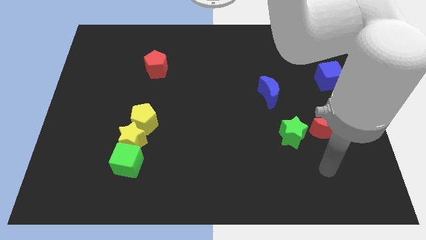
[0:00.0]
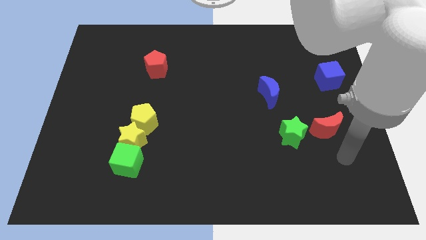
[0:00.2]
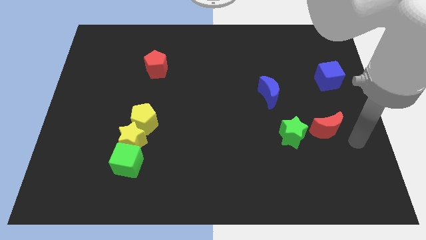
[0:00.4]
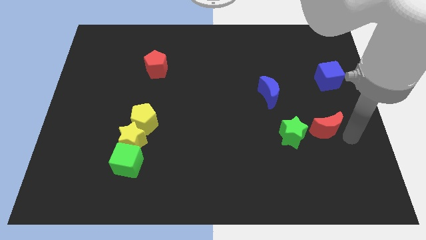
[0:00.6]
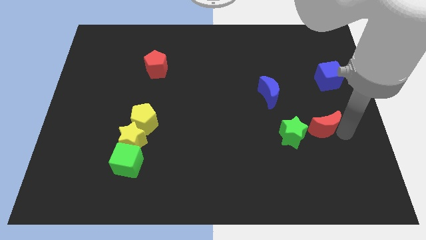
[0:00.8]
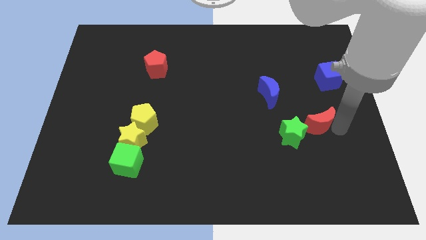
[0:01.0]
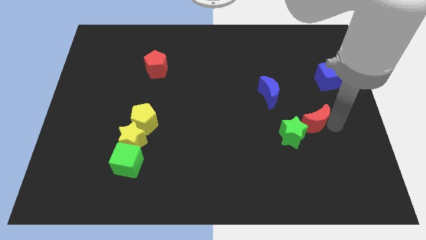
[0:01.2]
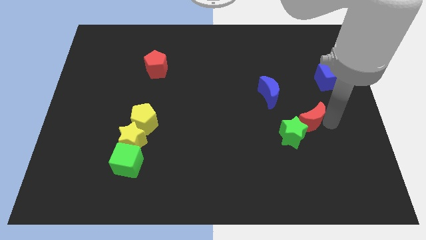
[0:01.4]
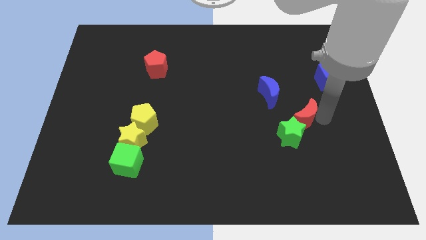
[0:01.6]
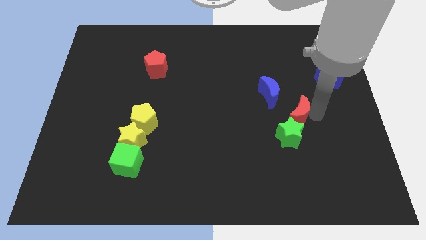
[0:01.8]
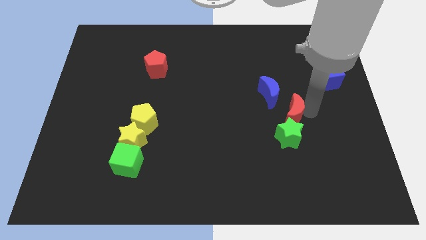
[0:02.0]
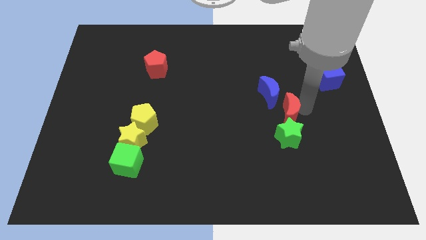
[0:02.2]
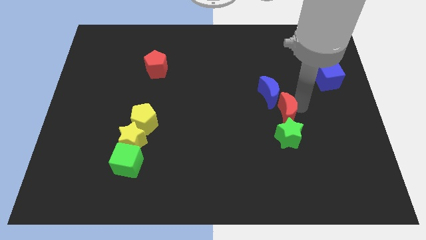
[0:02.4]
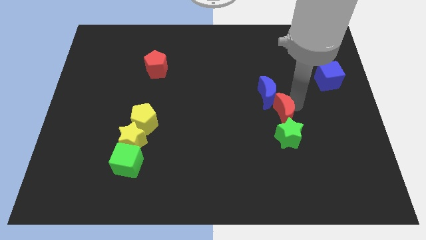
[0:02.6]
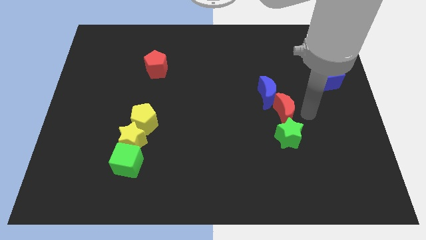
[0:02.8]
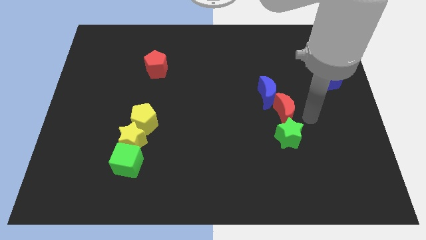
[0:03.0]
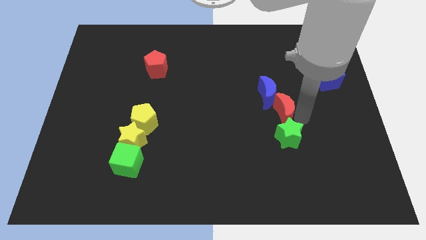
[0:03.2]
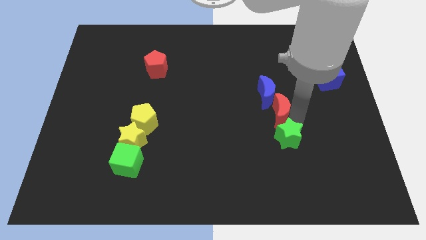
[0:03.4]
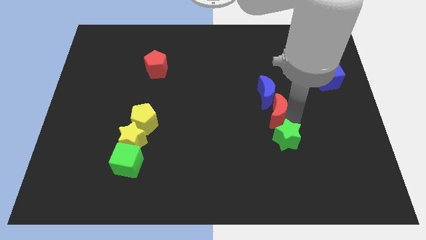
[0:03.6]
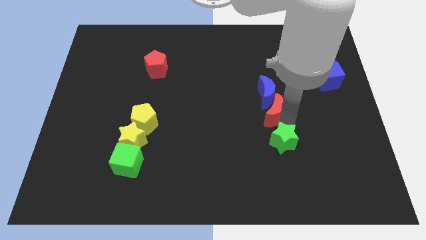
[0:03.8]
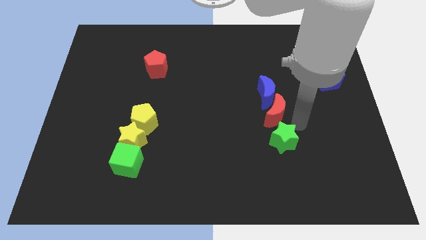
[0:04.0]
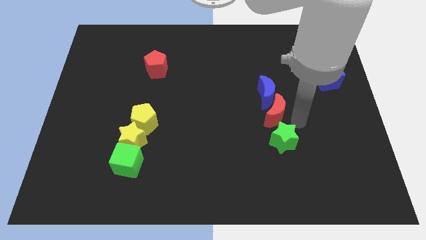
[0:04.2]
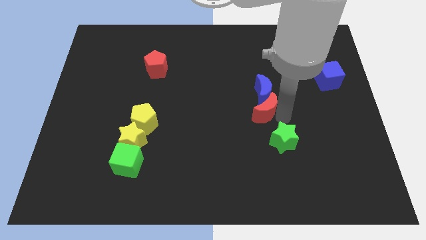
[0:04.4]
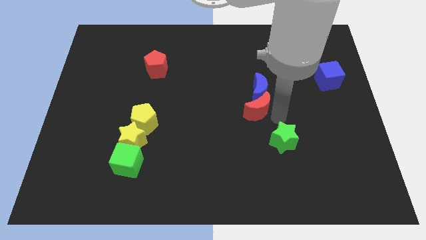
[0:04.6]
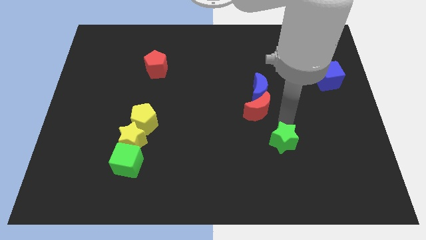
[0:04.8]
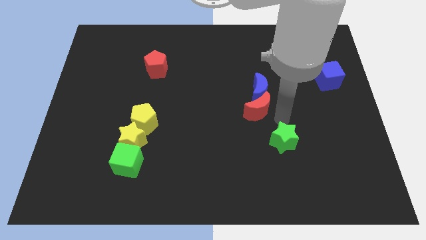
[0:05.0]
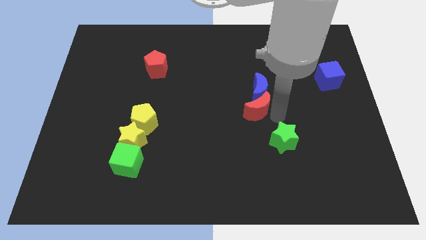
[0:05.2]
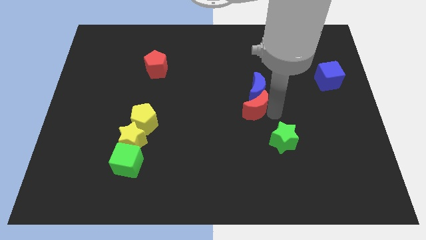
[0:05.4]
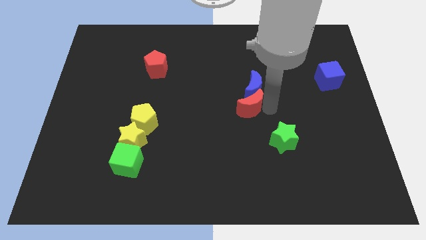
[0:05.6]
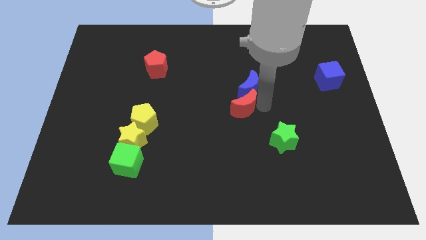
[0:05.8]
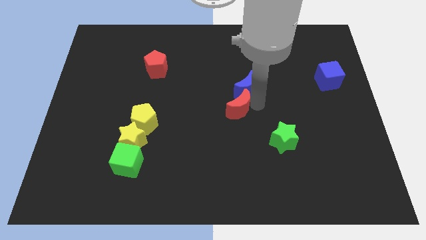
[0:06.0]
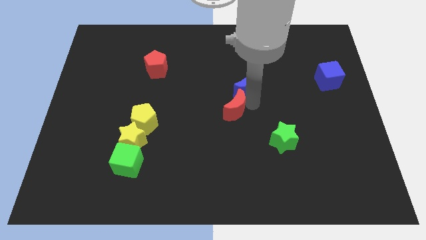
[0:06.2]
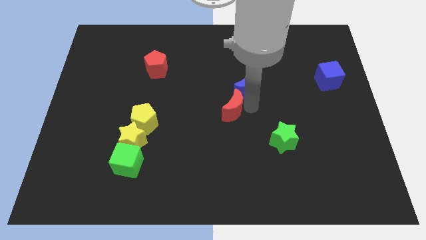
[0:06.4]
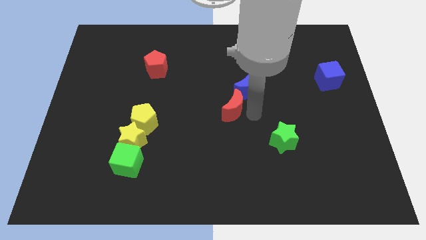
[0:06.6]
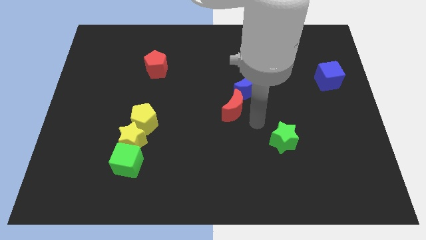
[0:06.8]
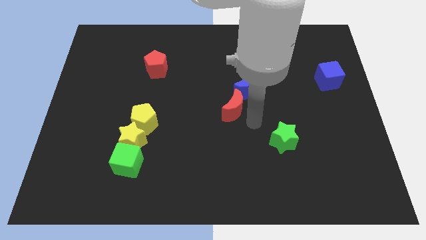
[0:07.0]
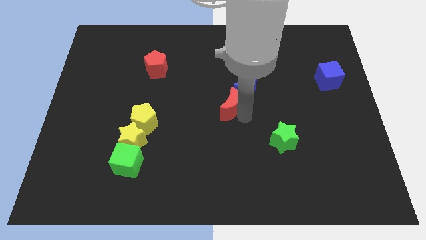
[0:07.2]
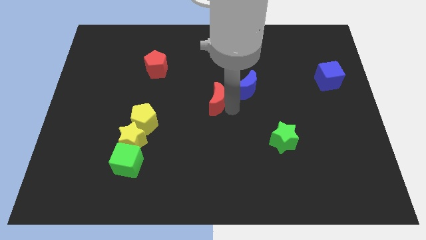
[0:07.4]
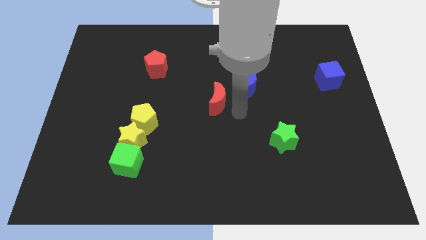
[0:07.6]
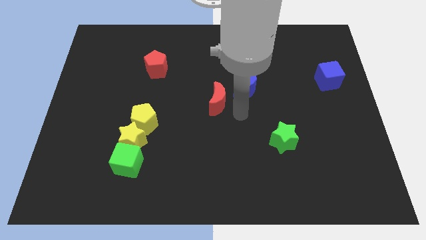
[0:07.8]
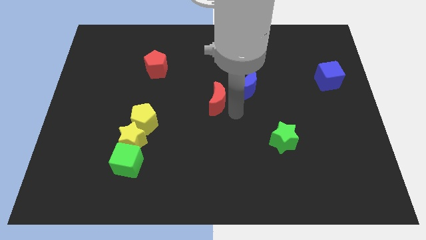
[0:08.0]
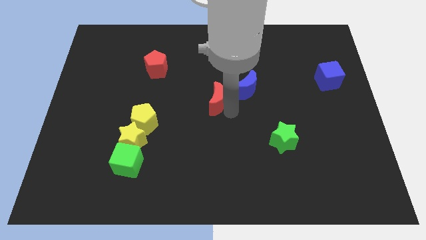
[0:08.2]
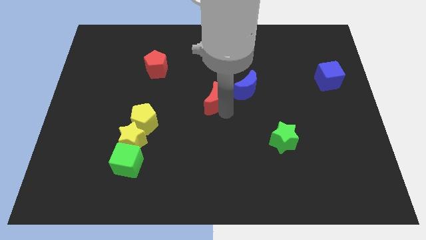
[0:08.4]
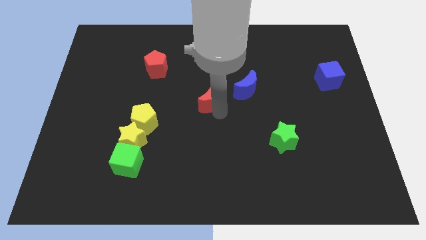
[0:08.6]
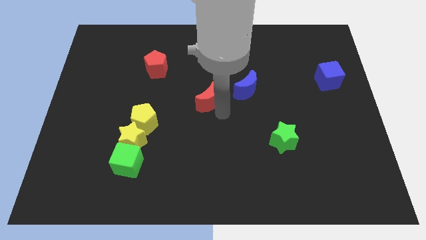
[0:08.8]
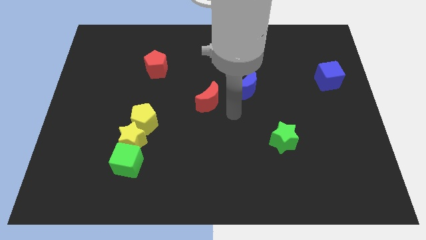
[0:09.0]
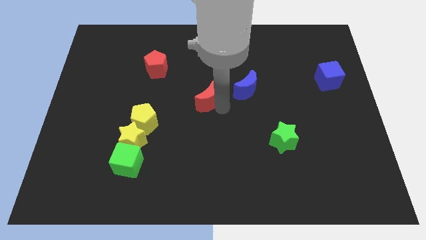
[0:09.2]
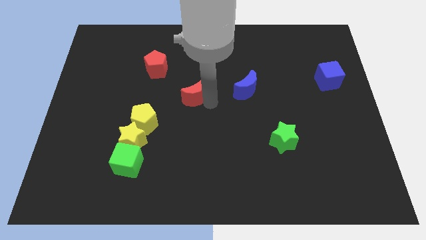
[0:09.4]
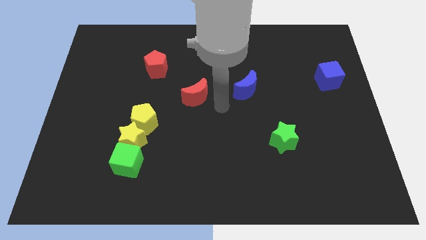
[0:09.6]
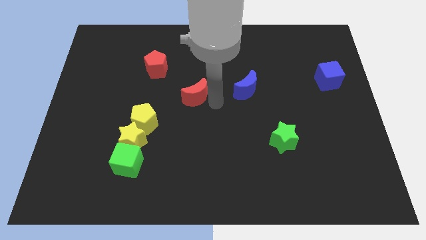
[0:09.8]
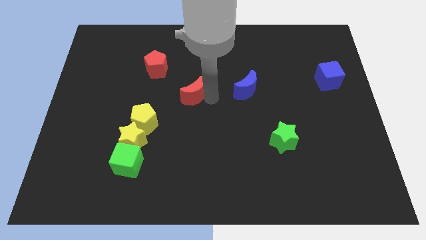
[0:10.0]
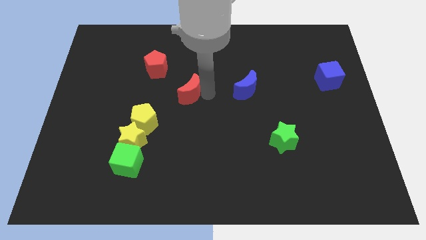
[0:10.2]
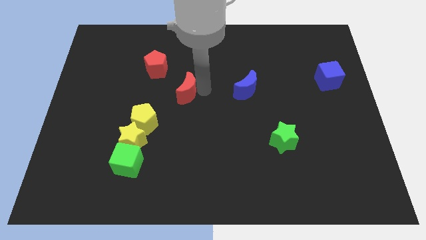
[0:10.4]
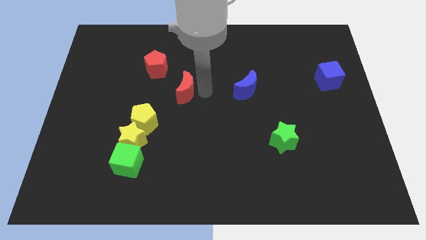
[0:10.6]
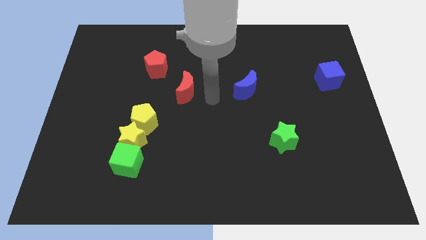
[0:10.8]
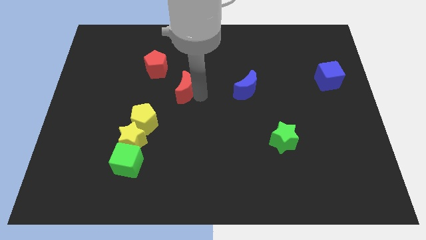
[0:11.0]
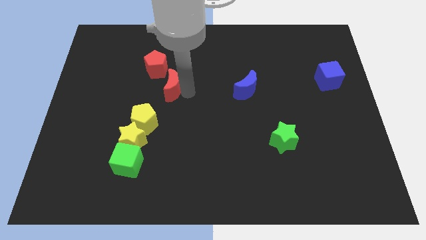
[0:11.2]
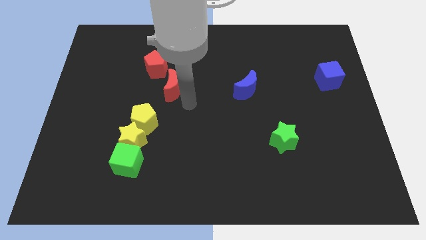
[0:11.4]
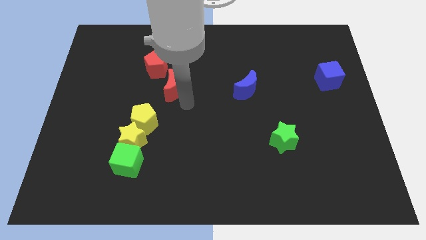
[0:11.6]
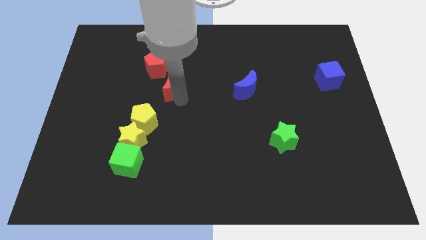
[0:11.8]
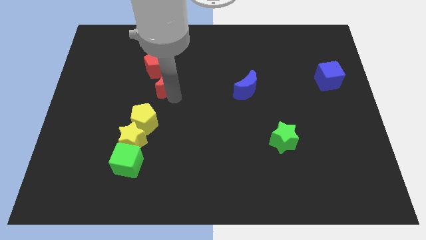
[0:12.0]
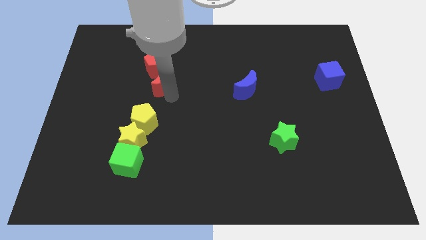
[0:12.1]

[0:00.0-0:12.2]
move the red moon to the red pentagon

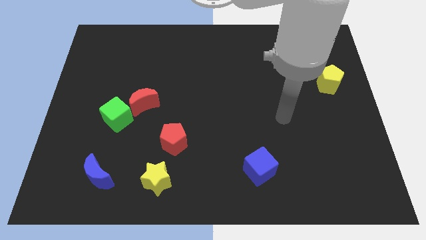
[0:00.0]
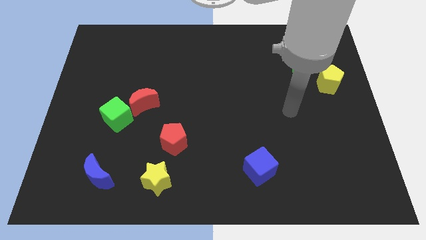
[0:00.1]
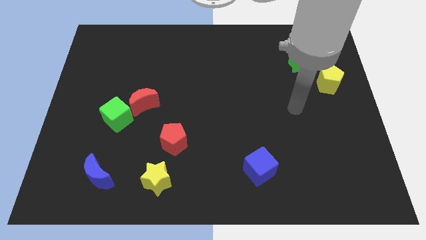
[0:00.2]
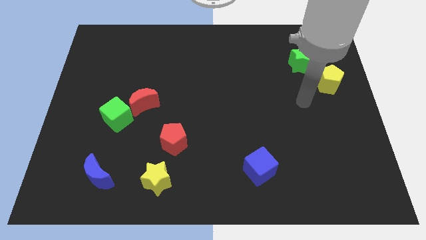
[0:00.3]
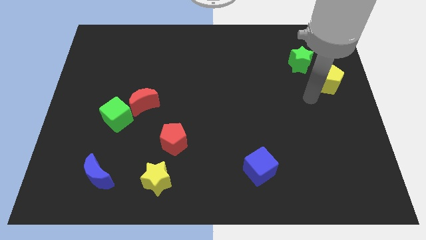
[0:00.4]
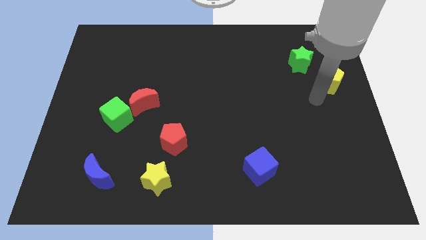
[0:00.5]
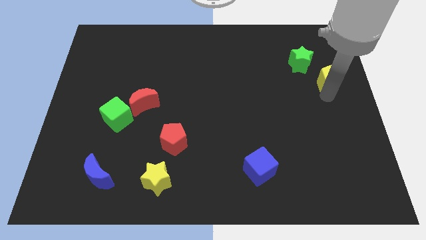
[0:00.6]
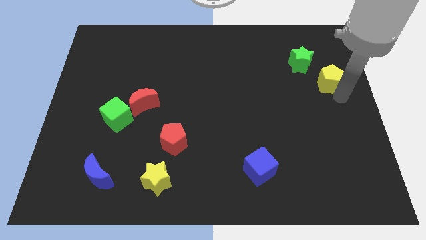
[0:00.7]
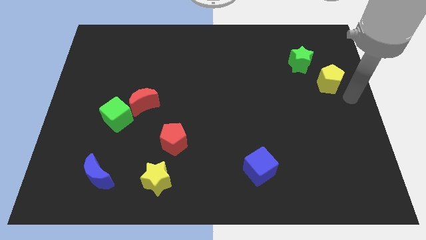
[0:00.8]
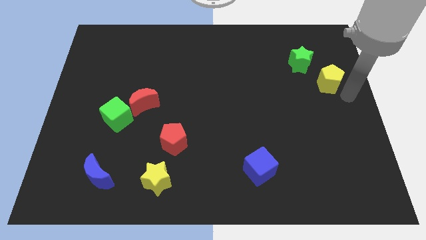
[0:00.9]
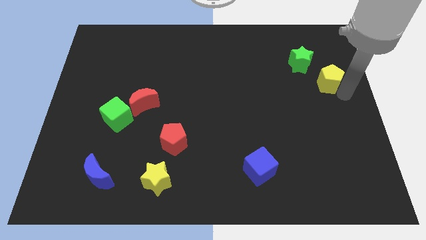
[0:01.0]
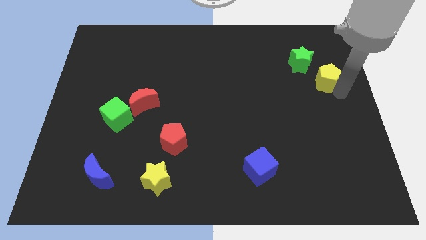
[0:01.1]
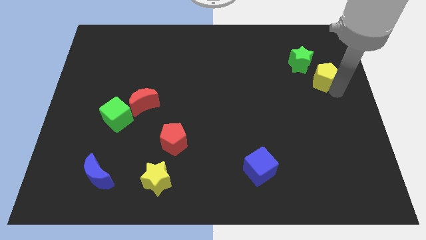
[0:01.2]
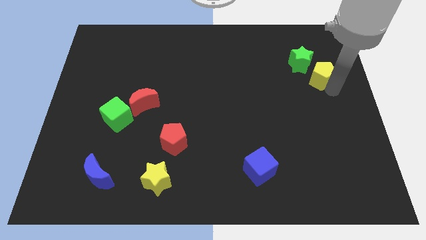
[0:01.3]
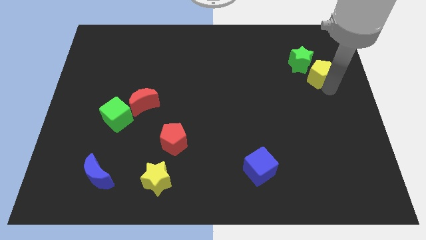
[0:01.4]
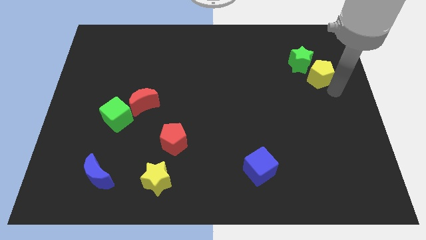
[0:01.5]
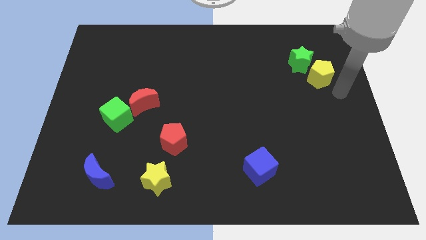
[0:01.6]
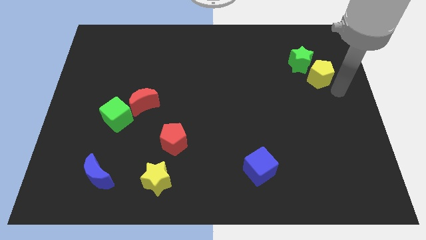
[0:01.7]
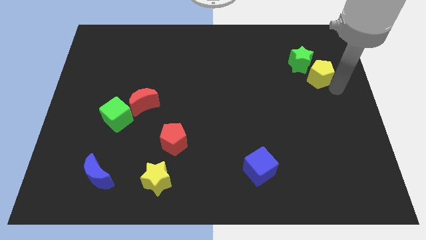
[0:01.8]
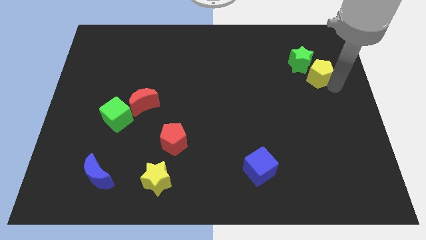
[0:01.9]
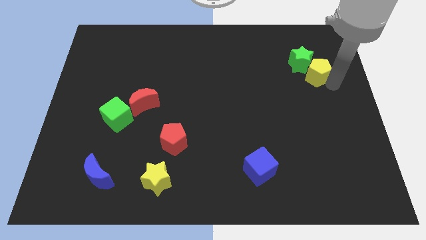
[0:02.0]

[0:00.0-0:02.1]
move the yellow pentagon next to the green star

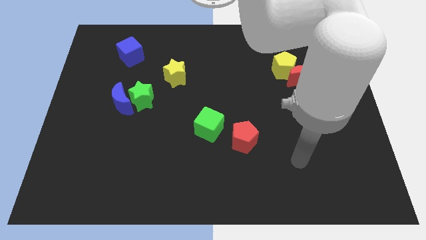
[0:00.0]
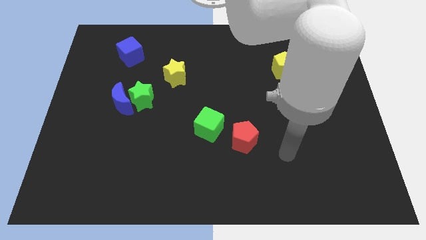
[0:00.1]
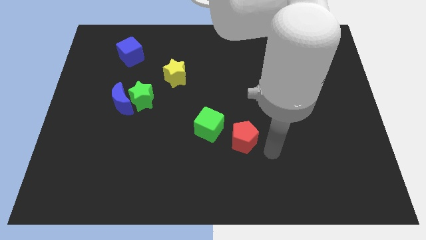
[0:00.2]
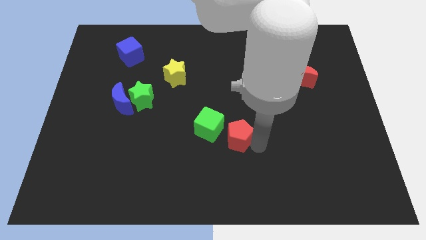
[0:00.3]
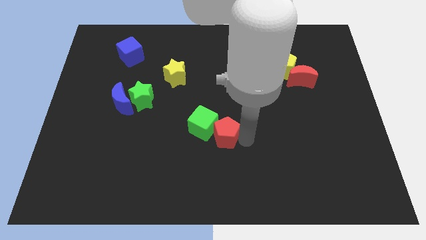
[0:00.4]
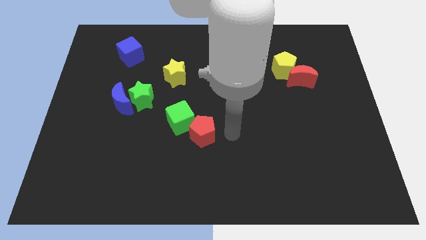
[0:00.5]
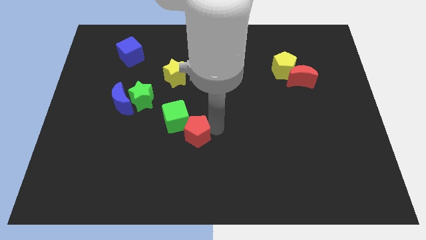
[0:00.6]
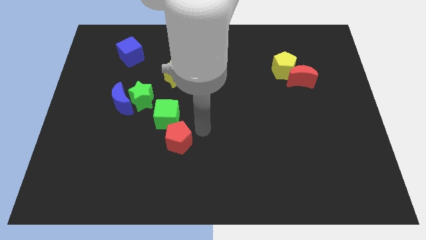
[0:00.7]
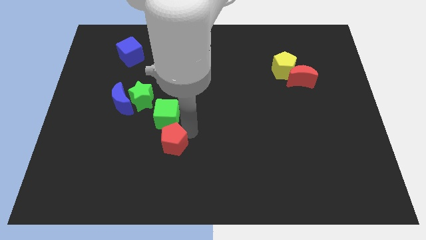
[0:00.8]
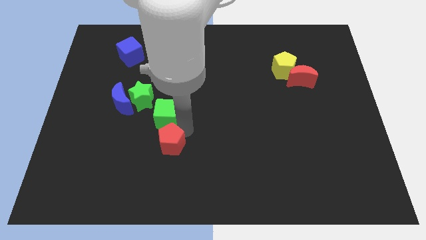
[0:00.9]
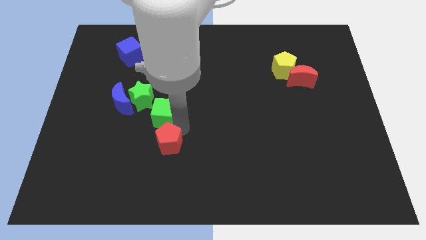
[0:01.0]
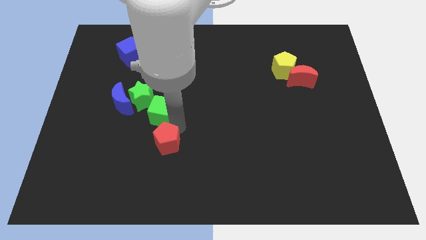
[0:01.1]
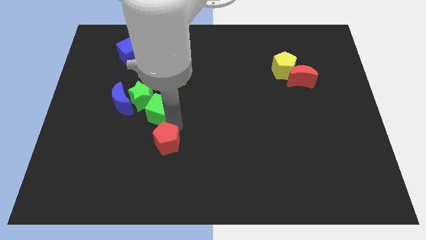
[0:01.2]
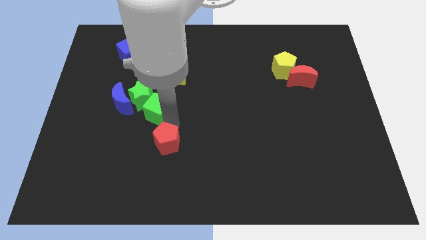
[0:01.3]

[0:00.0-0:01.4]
put the green cube towards the green star
